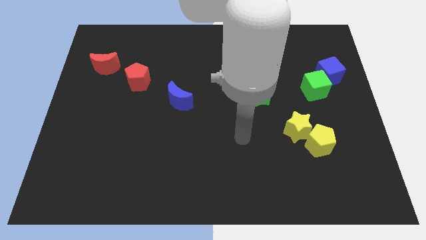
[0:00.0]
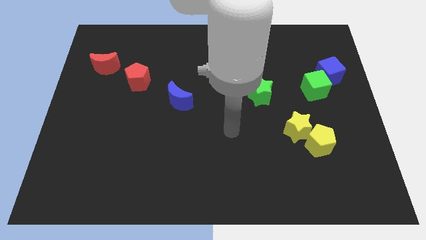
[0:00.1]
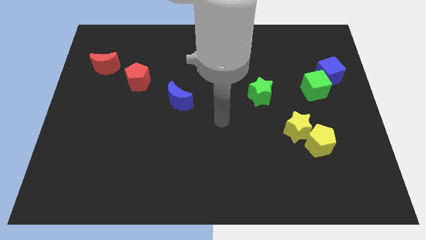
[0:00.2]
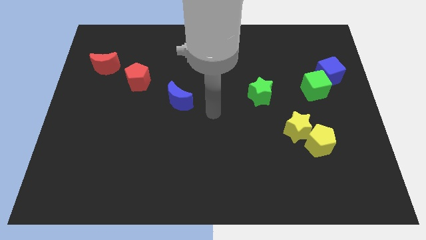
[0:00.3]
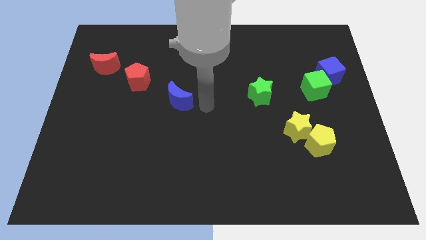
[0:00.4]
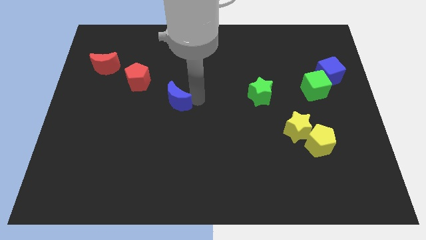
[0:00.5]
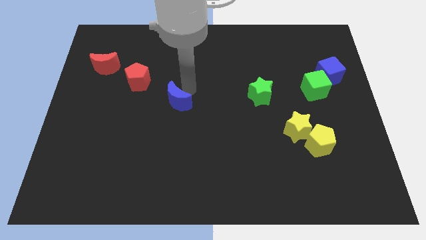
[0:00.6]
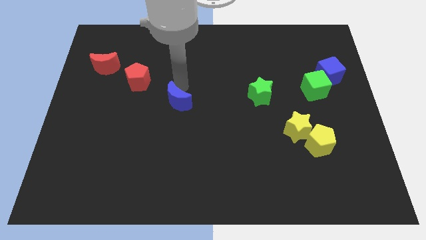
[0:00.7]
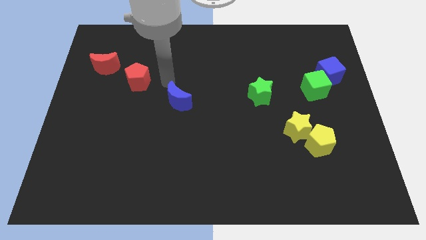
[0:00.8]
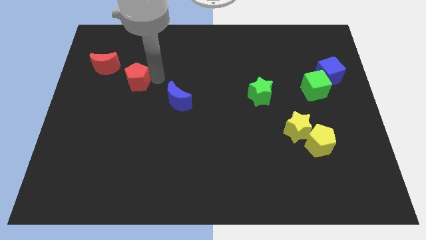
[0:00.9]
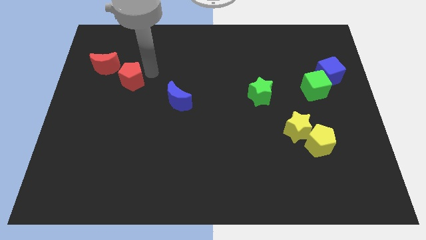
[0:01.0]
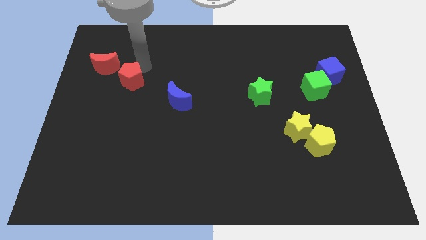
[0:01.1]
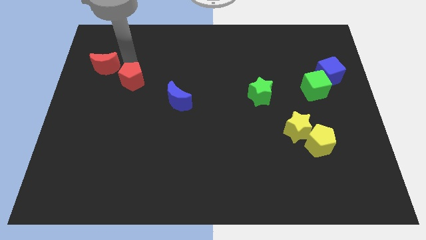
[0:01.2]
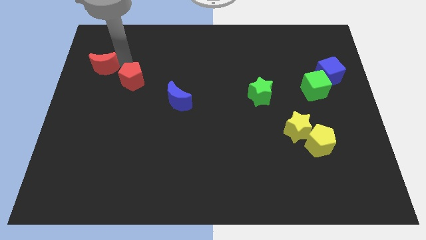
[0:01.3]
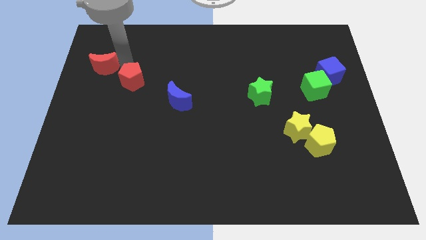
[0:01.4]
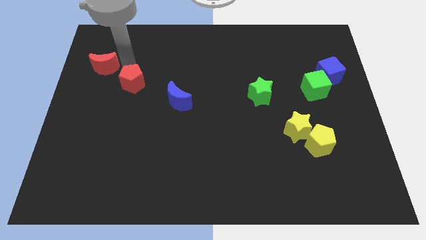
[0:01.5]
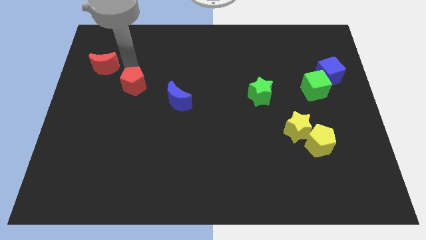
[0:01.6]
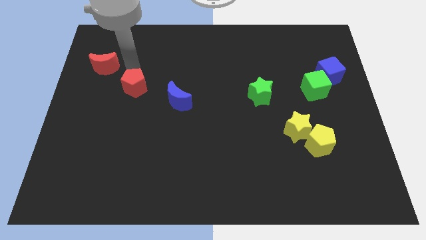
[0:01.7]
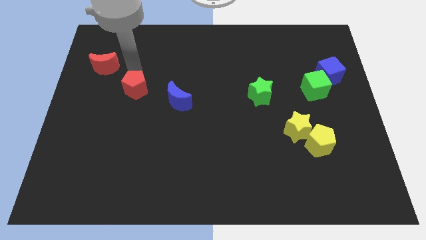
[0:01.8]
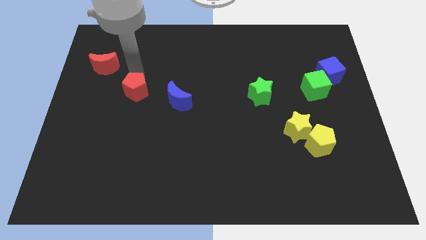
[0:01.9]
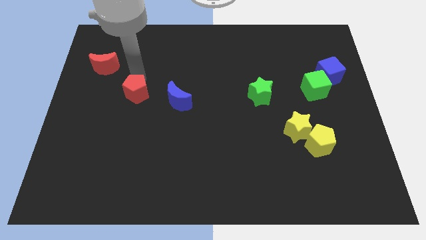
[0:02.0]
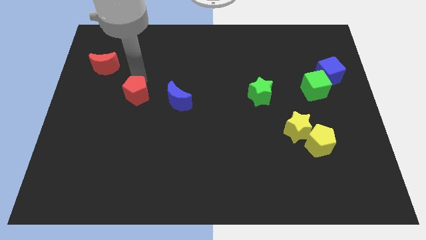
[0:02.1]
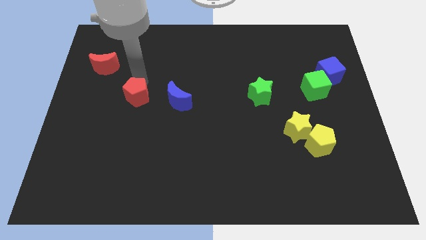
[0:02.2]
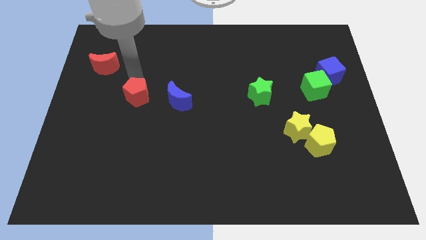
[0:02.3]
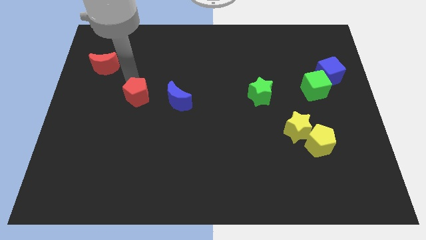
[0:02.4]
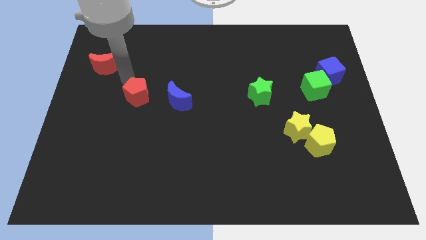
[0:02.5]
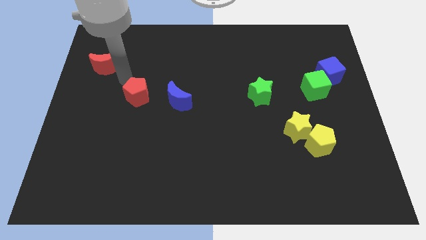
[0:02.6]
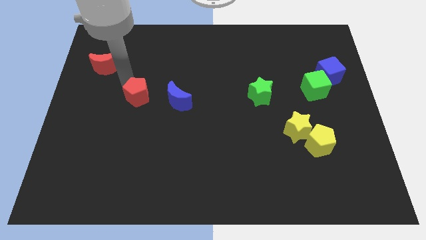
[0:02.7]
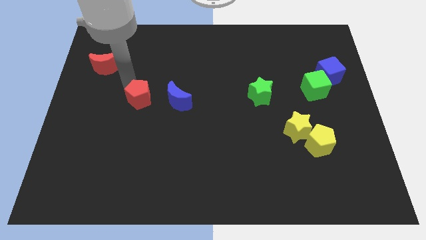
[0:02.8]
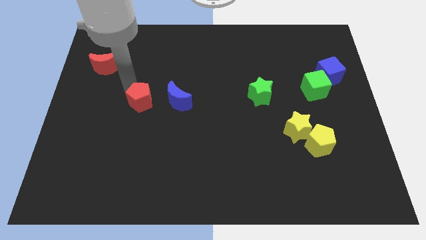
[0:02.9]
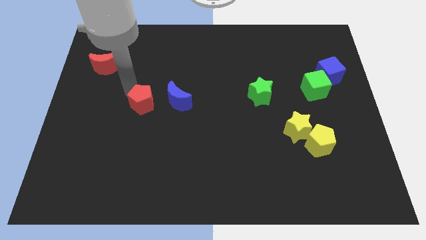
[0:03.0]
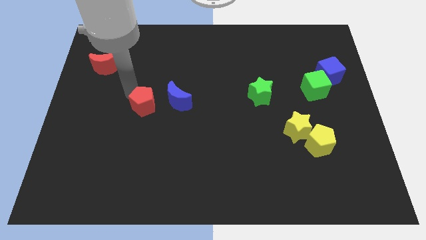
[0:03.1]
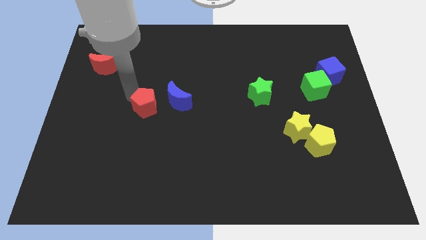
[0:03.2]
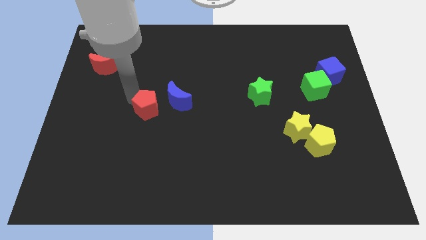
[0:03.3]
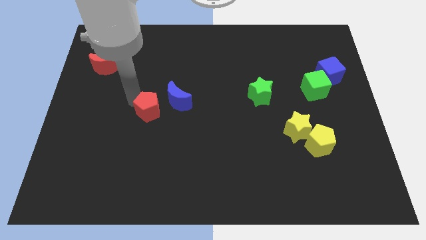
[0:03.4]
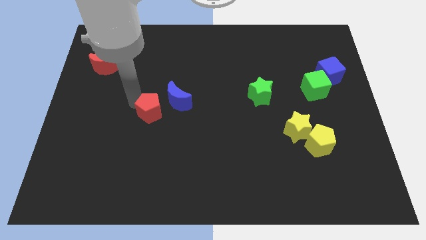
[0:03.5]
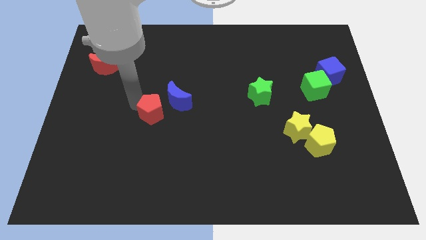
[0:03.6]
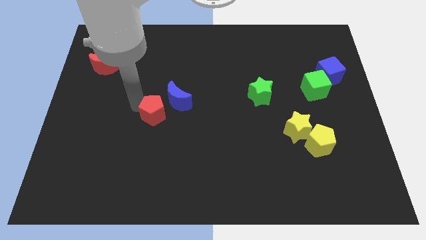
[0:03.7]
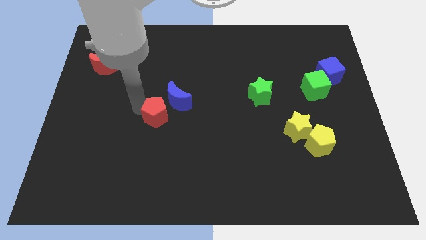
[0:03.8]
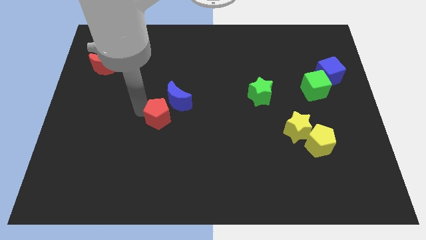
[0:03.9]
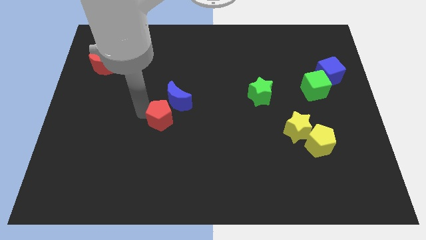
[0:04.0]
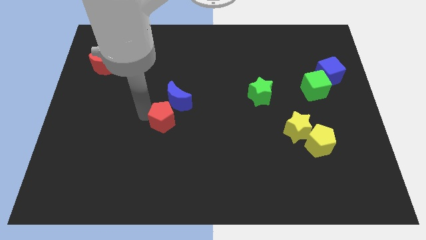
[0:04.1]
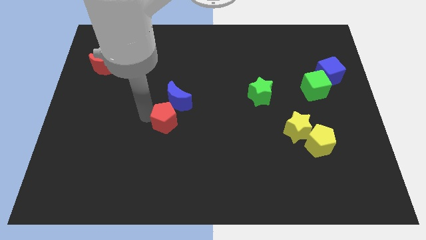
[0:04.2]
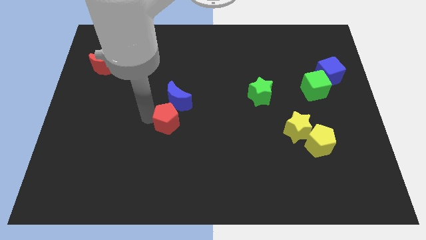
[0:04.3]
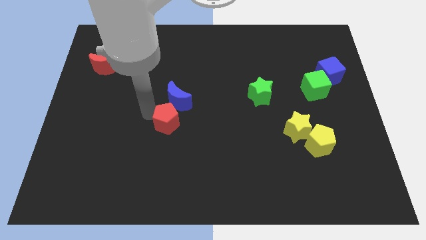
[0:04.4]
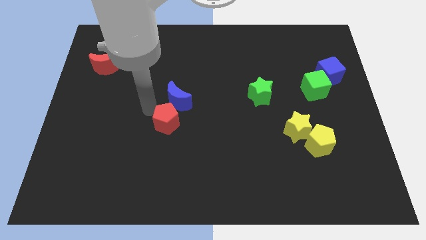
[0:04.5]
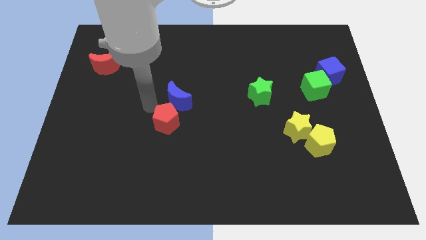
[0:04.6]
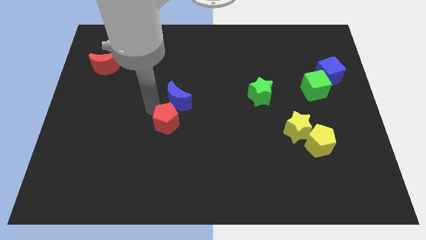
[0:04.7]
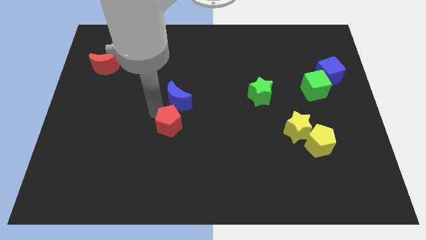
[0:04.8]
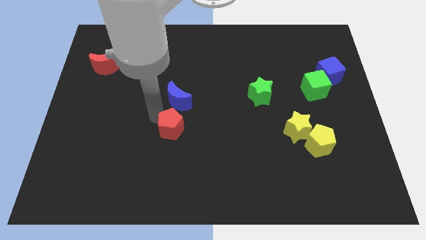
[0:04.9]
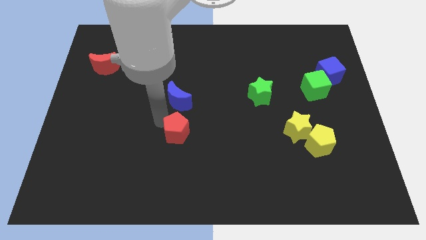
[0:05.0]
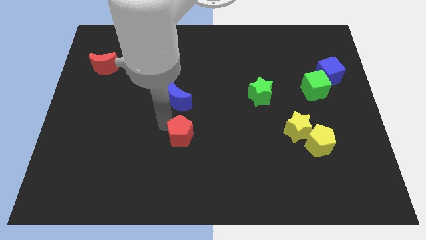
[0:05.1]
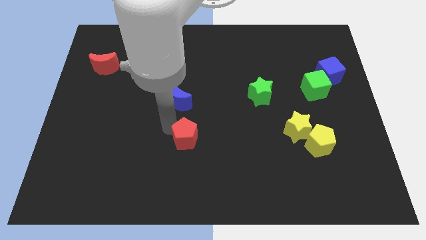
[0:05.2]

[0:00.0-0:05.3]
slide the red pentagon downwards and to the right

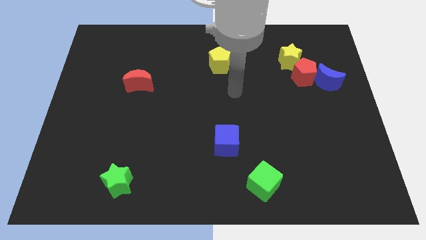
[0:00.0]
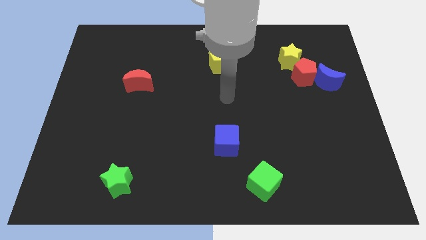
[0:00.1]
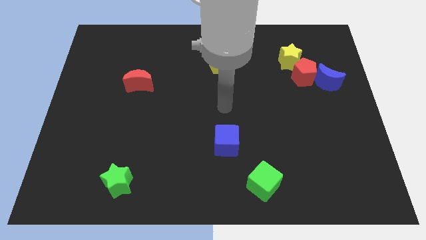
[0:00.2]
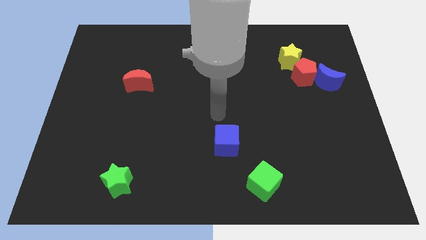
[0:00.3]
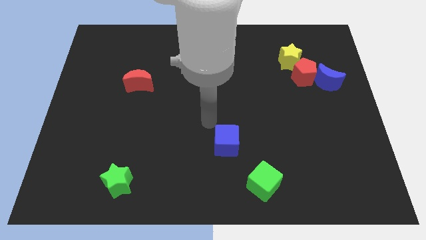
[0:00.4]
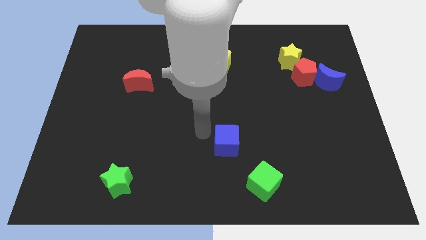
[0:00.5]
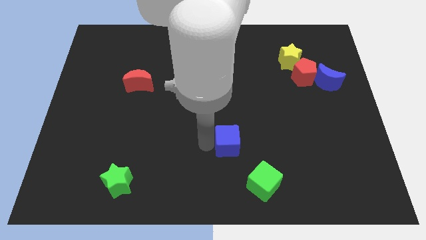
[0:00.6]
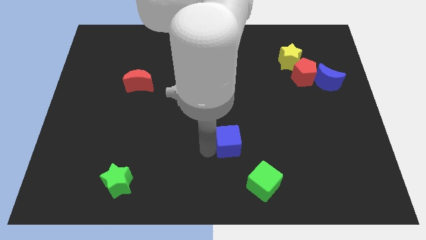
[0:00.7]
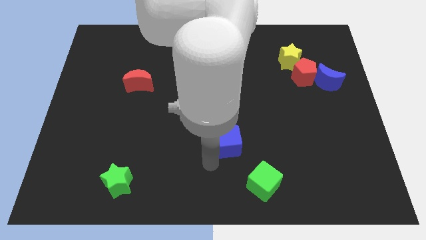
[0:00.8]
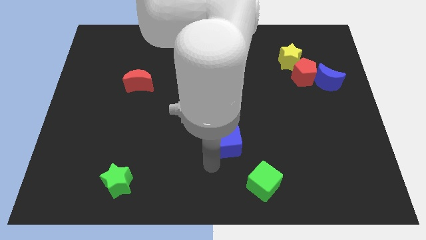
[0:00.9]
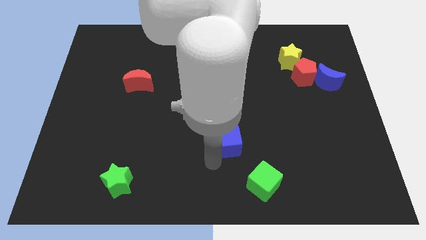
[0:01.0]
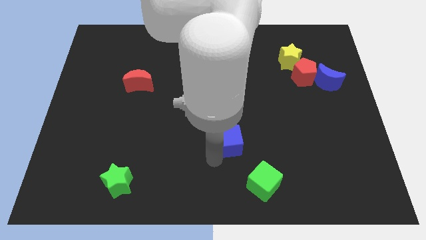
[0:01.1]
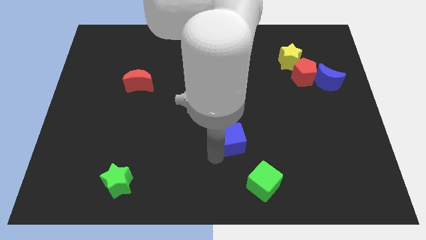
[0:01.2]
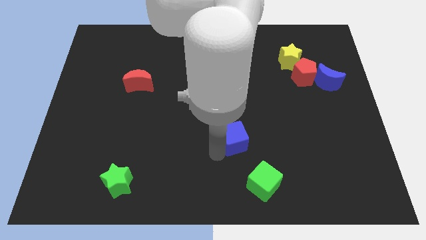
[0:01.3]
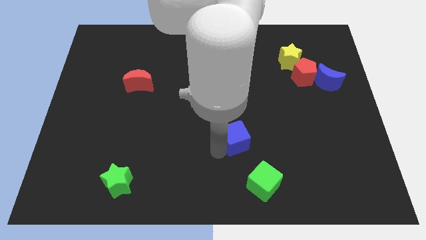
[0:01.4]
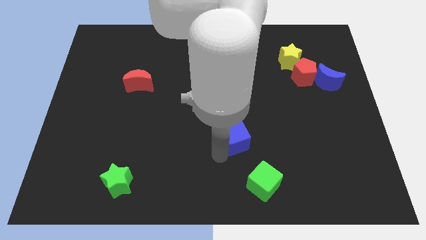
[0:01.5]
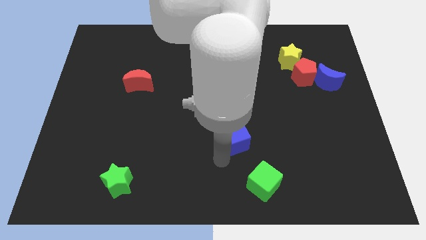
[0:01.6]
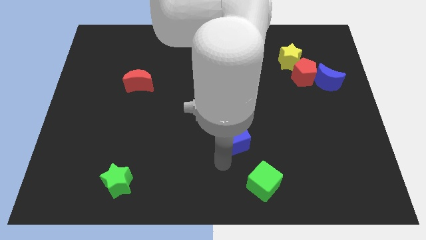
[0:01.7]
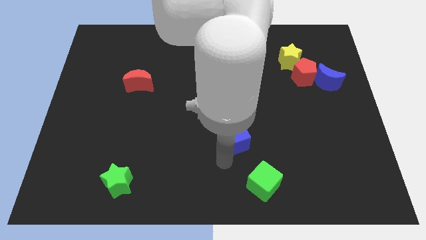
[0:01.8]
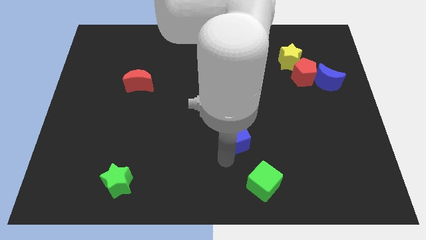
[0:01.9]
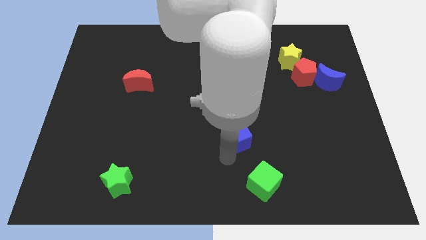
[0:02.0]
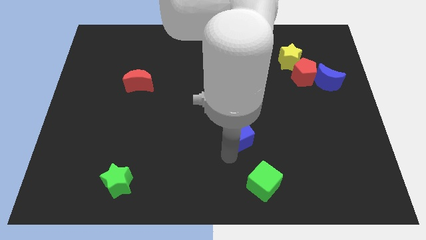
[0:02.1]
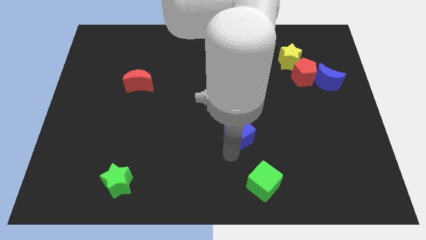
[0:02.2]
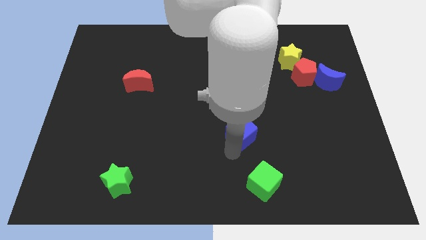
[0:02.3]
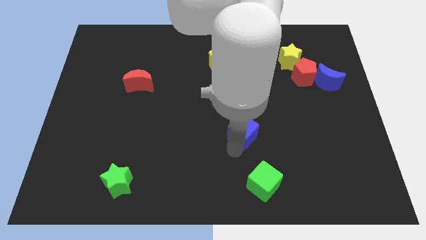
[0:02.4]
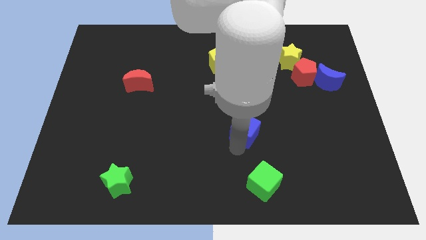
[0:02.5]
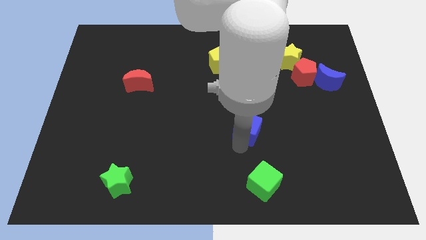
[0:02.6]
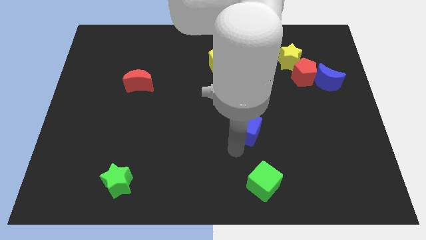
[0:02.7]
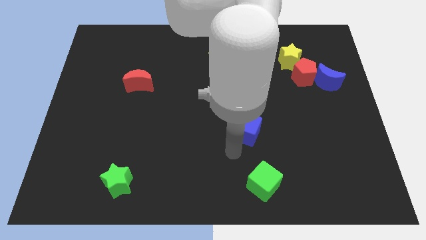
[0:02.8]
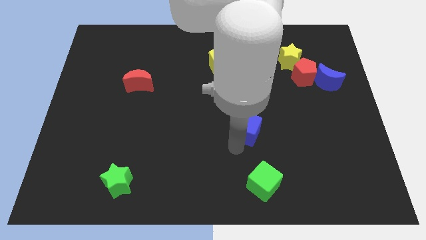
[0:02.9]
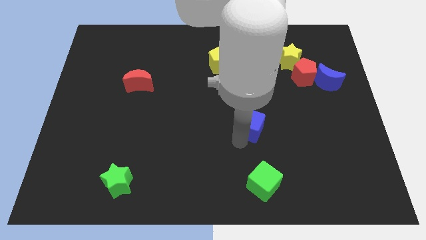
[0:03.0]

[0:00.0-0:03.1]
slightly push the blue cube upwards and right diagonally
